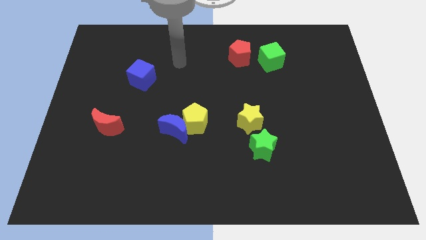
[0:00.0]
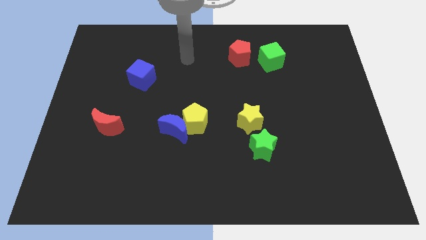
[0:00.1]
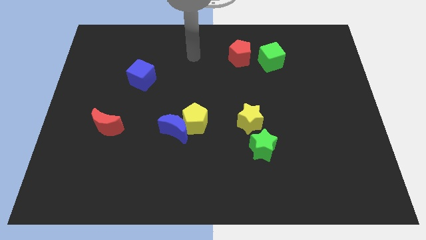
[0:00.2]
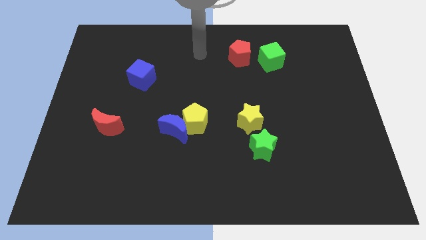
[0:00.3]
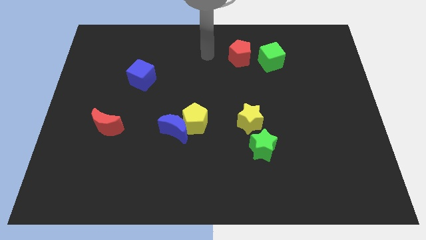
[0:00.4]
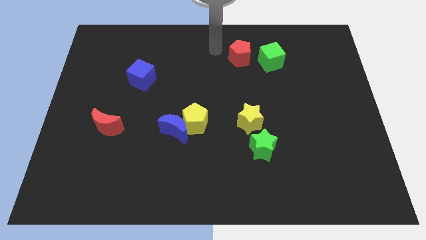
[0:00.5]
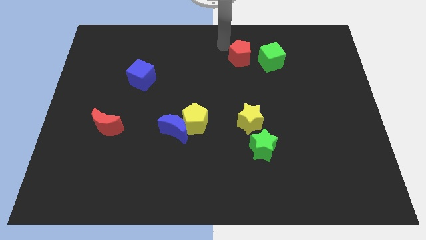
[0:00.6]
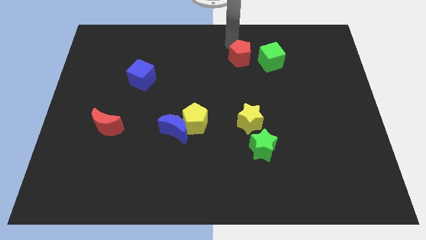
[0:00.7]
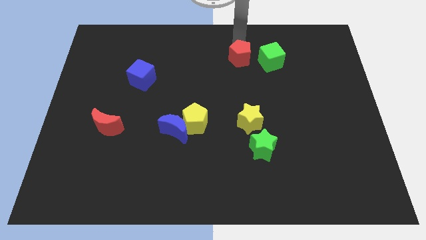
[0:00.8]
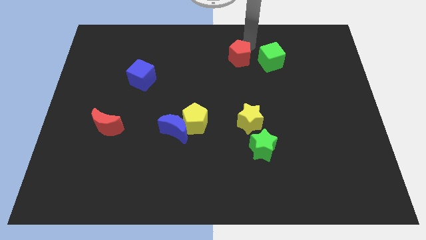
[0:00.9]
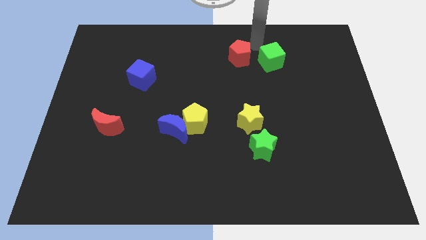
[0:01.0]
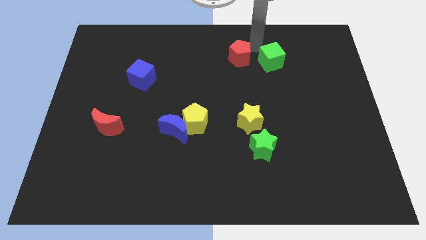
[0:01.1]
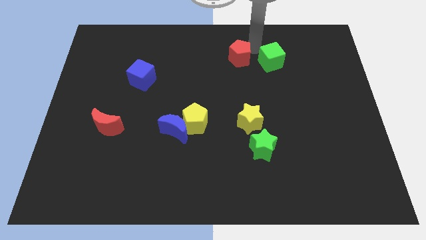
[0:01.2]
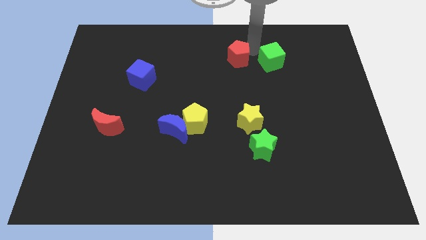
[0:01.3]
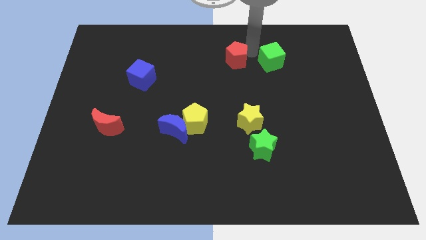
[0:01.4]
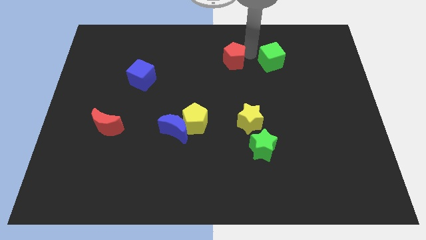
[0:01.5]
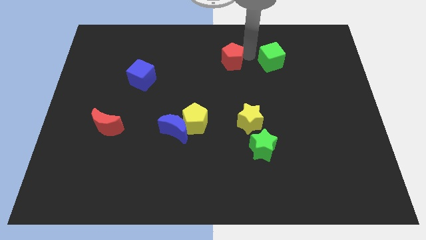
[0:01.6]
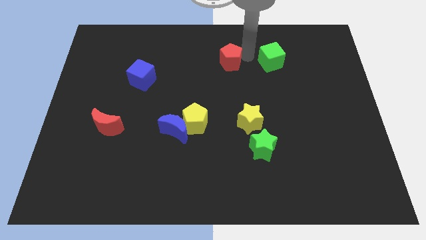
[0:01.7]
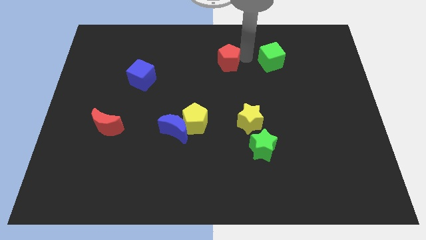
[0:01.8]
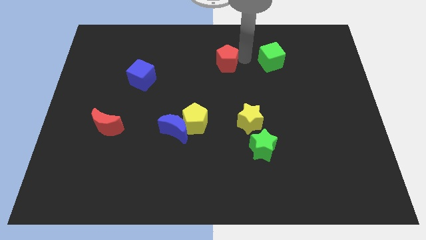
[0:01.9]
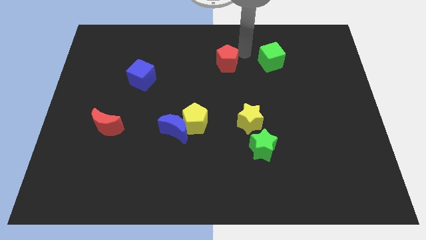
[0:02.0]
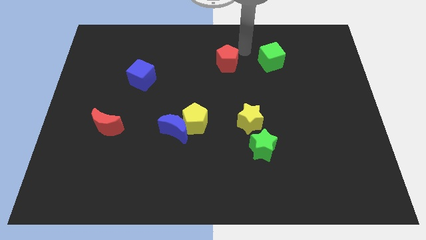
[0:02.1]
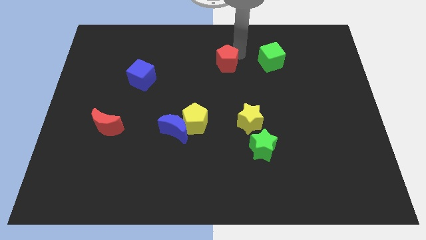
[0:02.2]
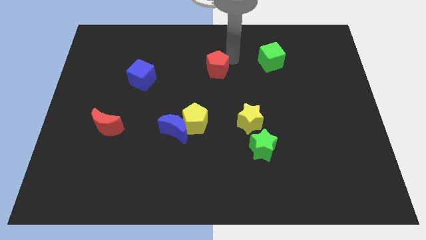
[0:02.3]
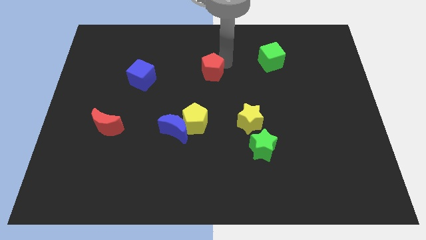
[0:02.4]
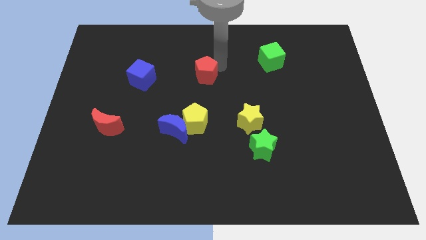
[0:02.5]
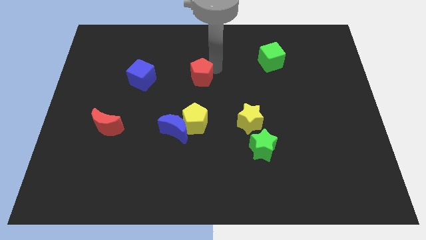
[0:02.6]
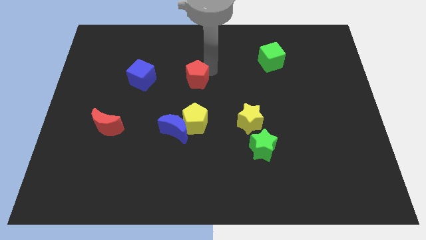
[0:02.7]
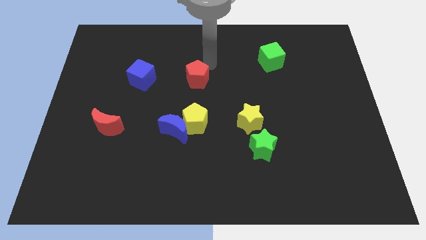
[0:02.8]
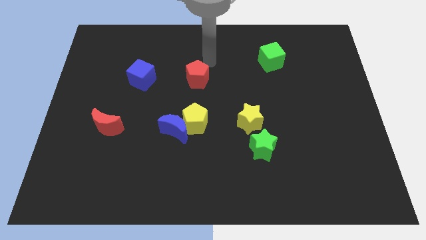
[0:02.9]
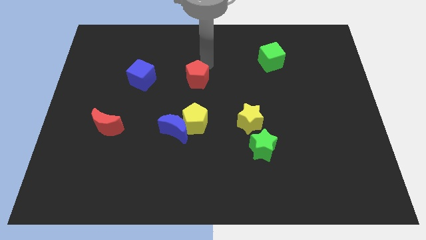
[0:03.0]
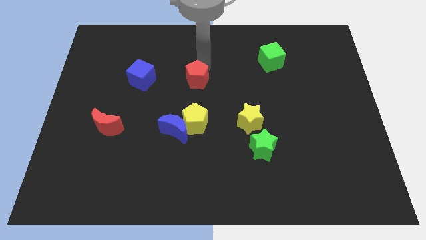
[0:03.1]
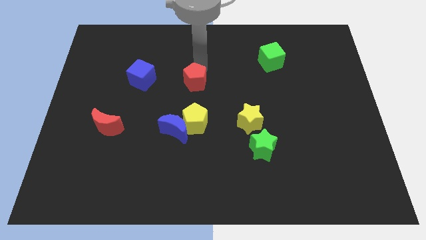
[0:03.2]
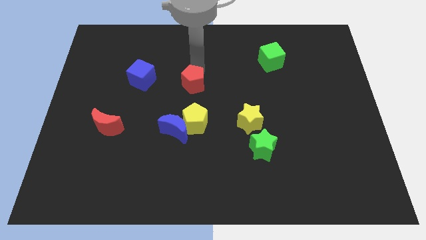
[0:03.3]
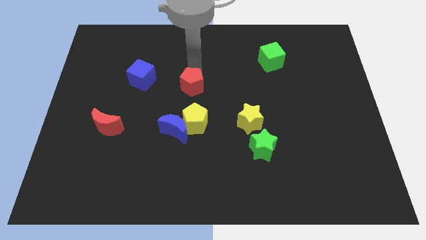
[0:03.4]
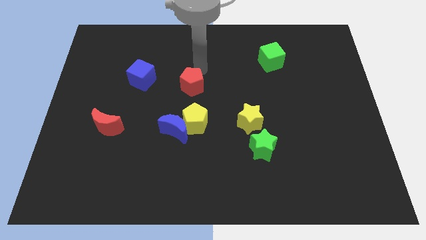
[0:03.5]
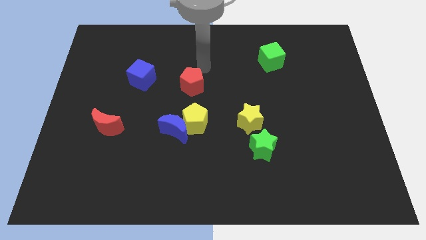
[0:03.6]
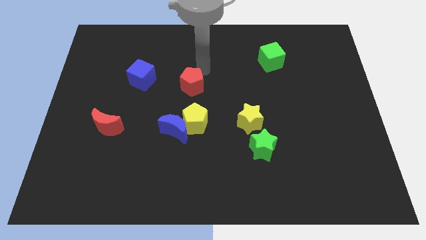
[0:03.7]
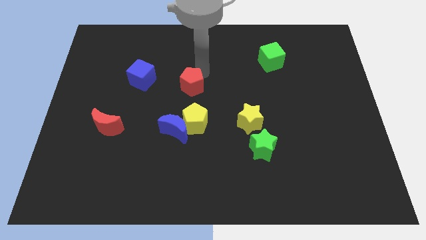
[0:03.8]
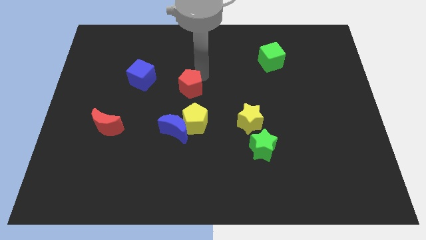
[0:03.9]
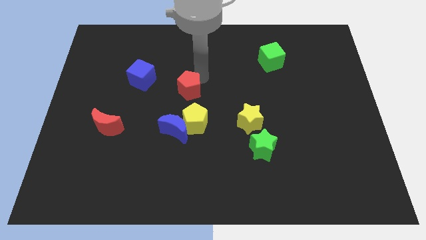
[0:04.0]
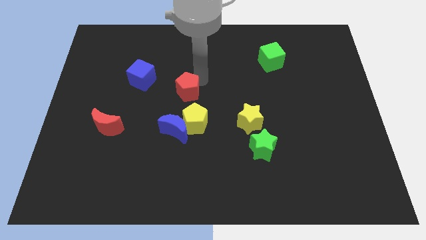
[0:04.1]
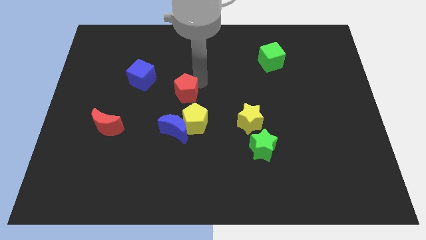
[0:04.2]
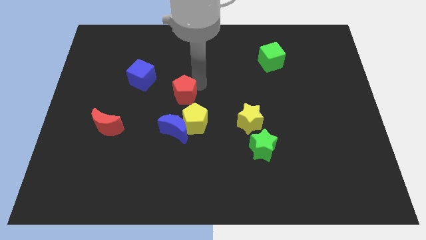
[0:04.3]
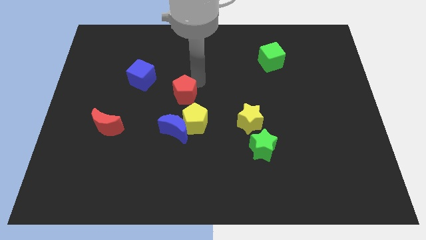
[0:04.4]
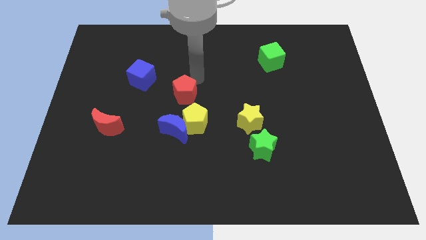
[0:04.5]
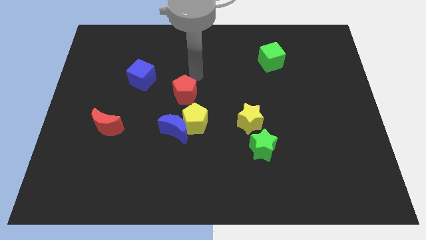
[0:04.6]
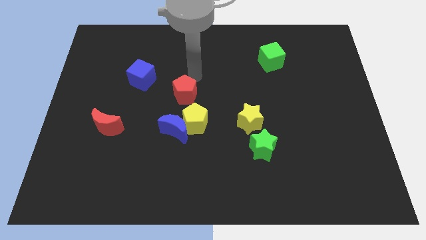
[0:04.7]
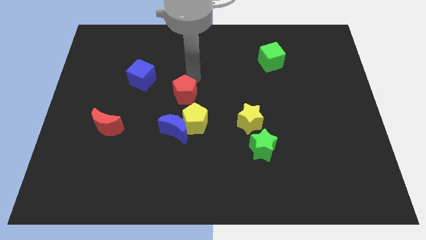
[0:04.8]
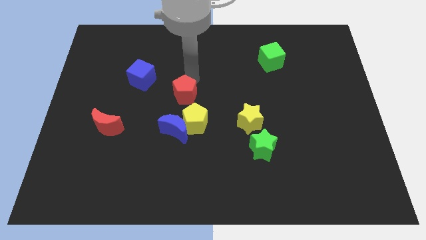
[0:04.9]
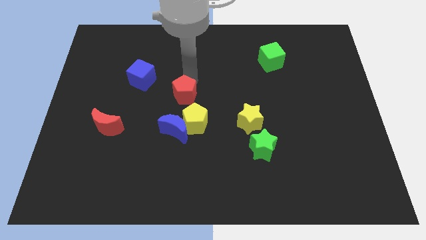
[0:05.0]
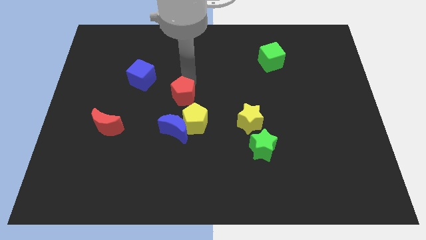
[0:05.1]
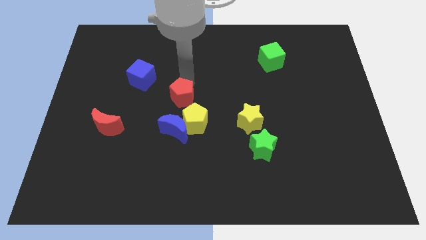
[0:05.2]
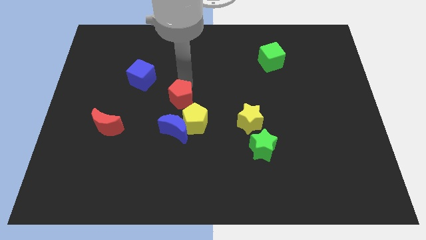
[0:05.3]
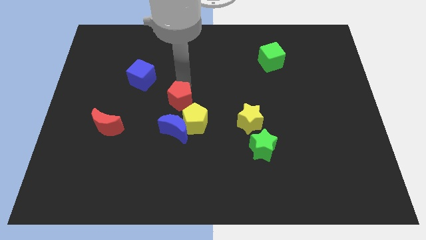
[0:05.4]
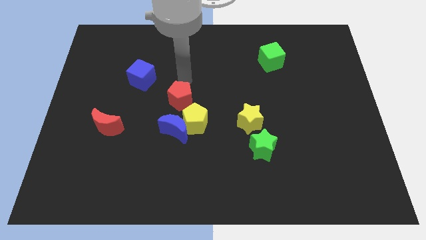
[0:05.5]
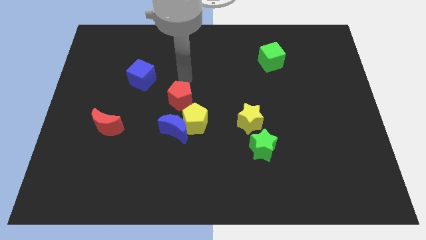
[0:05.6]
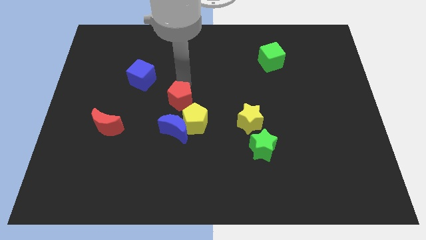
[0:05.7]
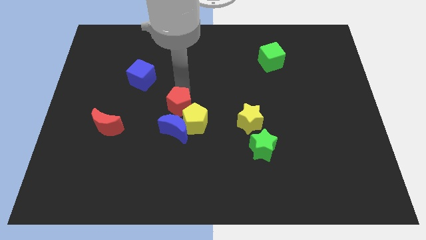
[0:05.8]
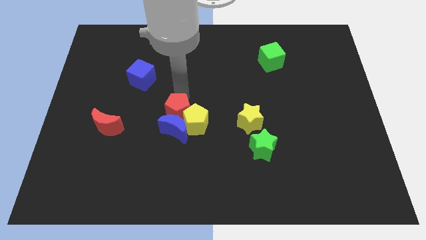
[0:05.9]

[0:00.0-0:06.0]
slide the red pentagon towards the blue moon

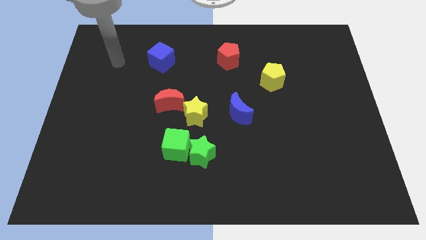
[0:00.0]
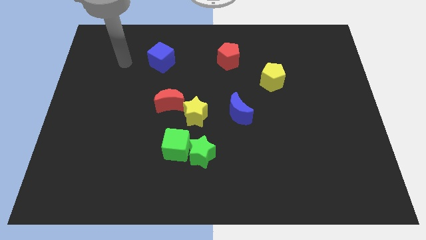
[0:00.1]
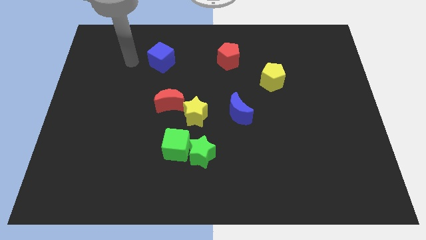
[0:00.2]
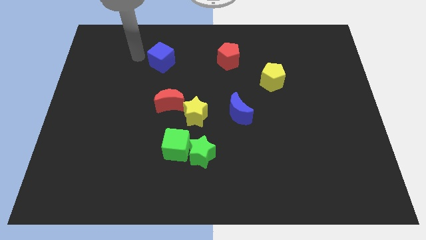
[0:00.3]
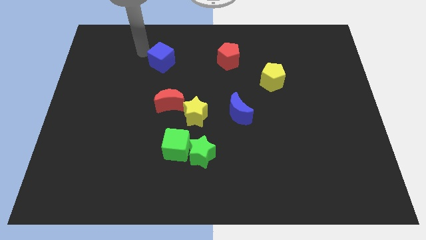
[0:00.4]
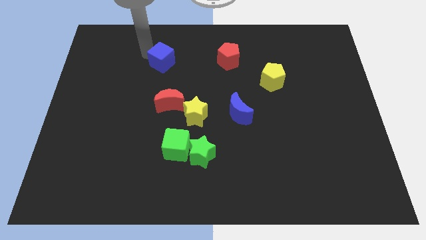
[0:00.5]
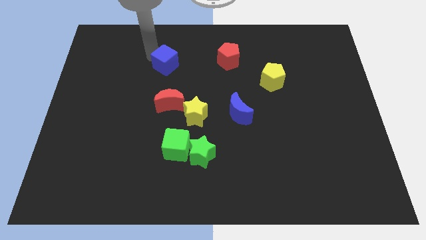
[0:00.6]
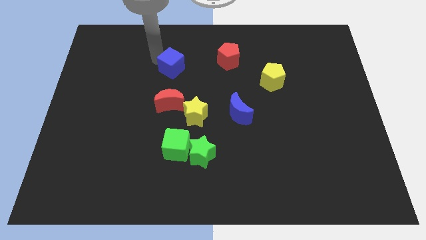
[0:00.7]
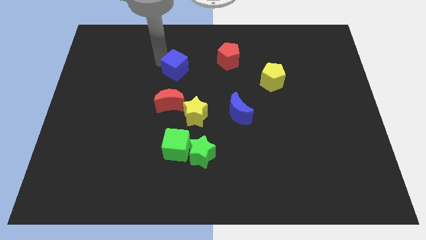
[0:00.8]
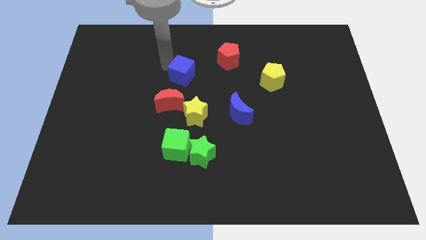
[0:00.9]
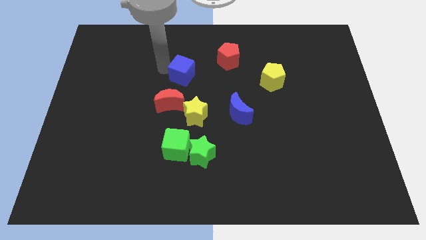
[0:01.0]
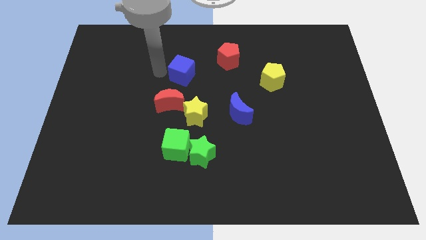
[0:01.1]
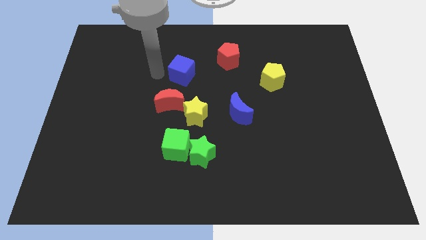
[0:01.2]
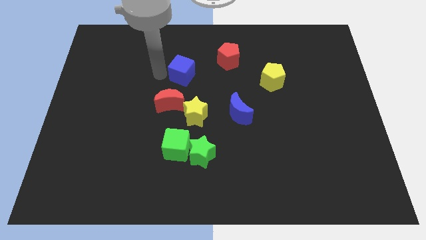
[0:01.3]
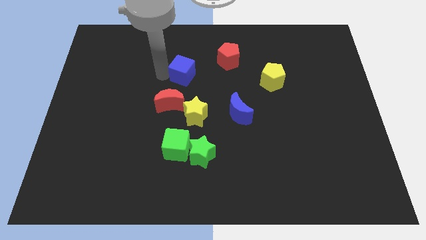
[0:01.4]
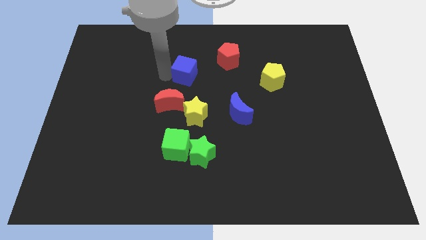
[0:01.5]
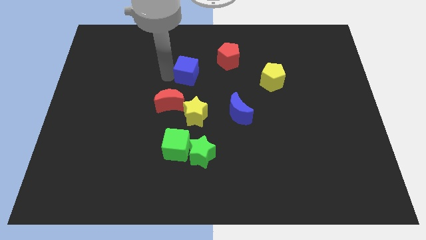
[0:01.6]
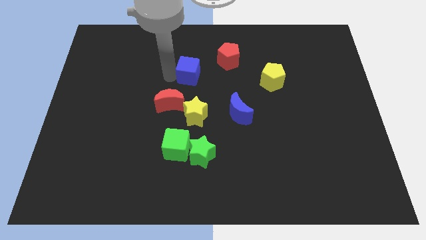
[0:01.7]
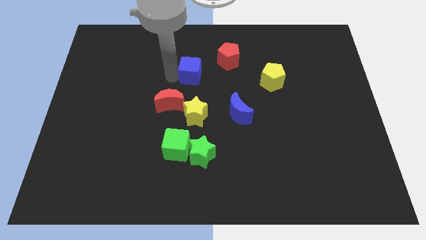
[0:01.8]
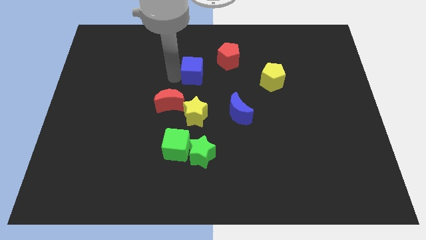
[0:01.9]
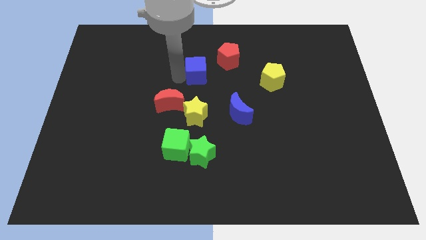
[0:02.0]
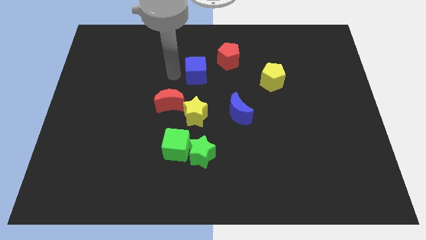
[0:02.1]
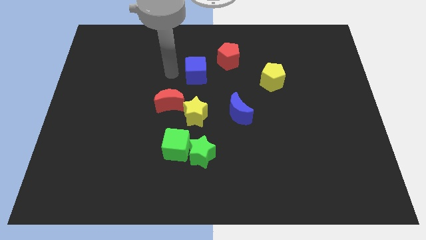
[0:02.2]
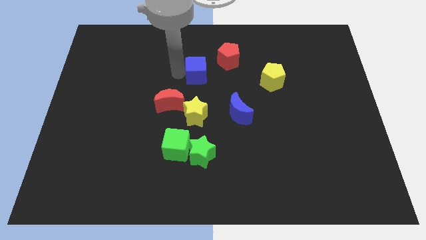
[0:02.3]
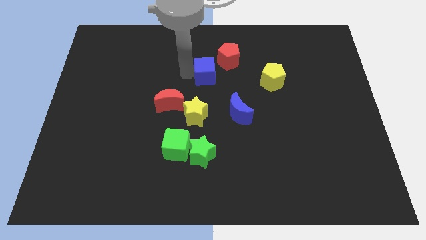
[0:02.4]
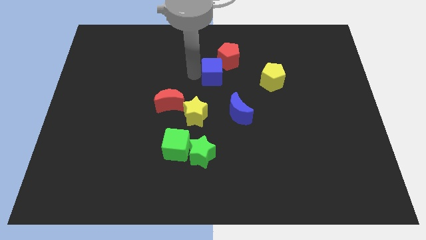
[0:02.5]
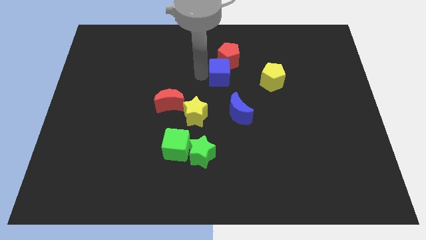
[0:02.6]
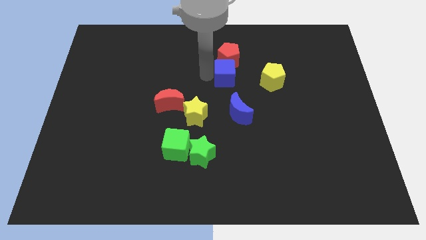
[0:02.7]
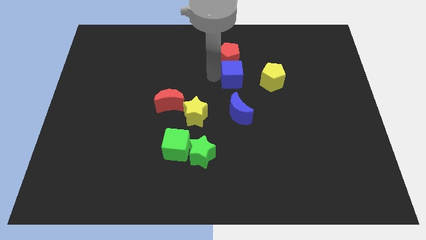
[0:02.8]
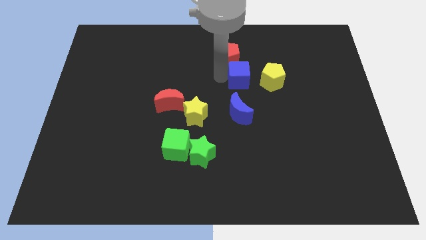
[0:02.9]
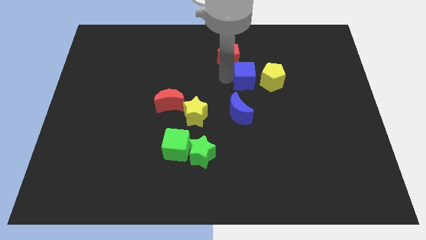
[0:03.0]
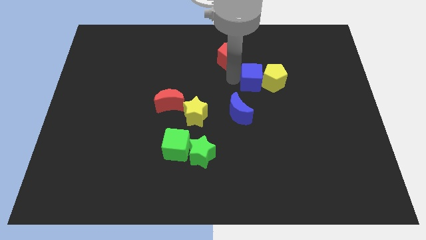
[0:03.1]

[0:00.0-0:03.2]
put the blue cube to the yellow pentagon
